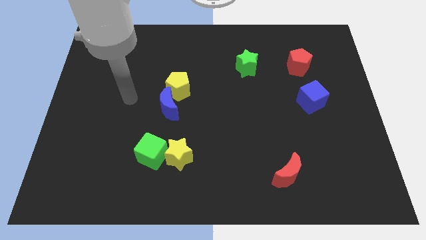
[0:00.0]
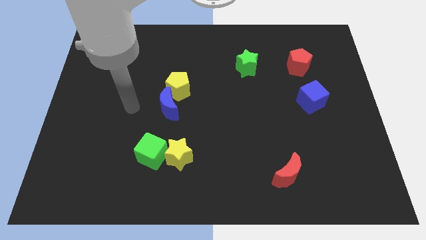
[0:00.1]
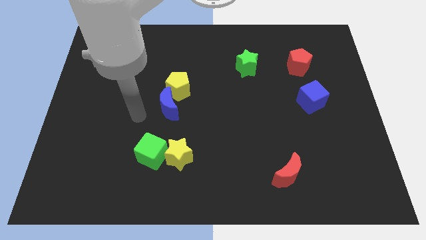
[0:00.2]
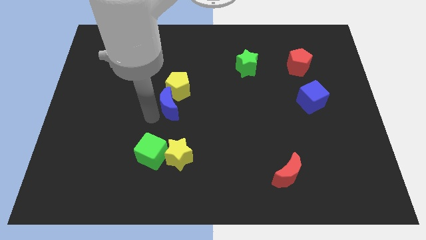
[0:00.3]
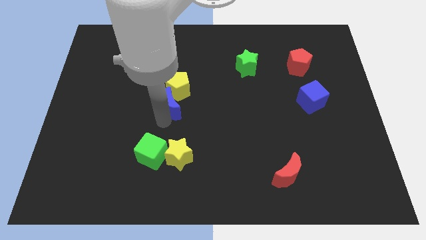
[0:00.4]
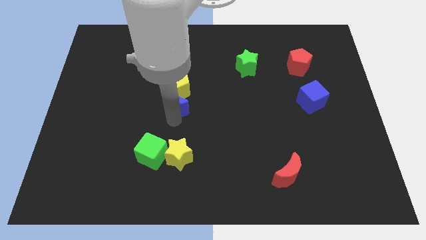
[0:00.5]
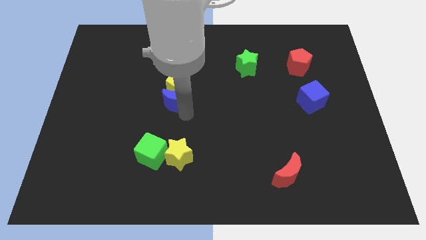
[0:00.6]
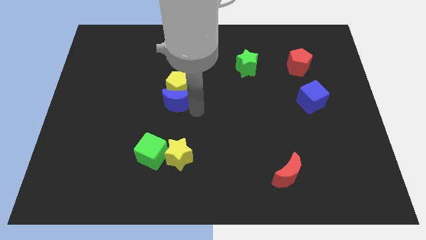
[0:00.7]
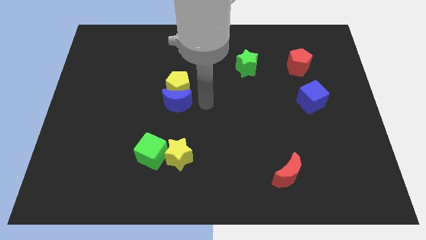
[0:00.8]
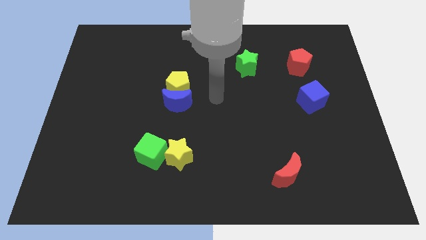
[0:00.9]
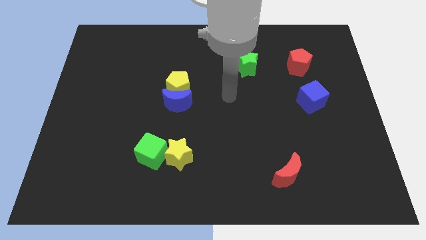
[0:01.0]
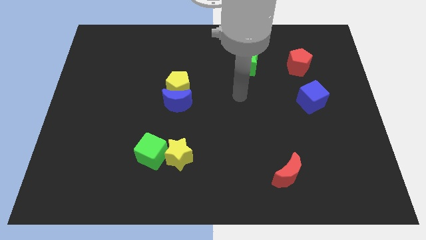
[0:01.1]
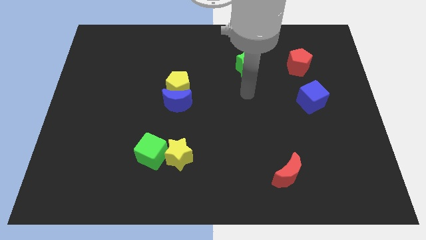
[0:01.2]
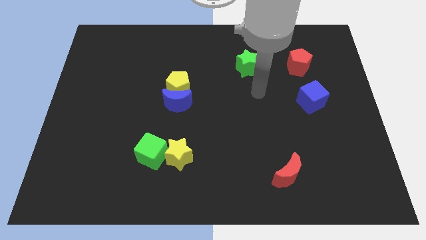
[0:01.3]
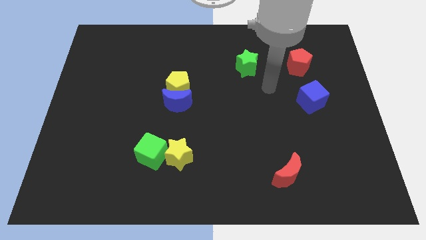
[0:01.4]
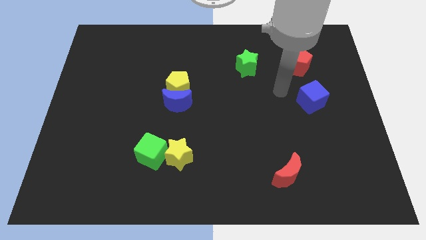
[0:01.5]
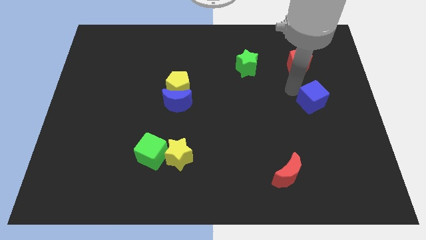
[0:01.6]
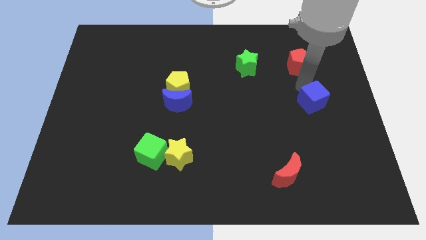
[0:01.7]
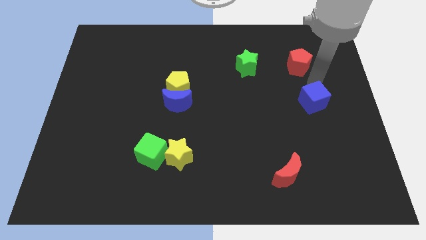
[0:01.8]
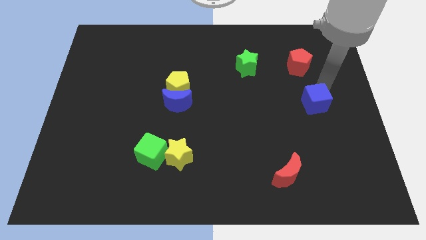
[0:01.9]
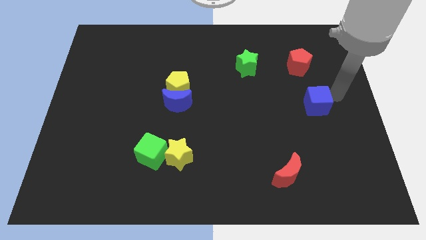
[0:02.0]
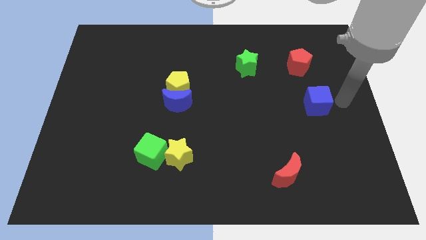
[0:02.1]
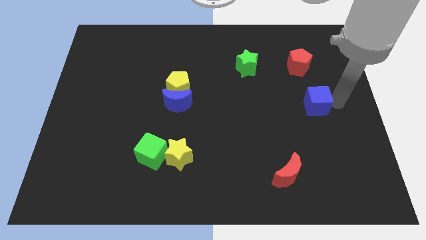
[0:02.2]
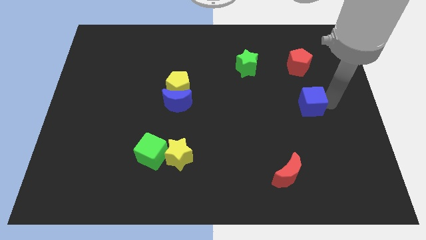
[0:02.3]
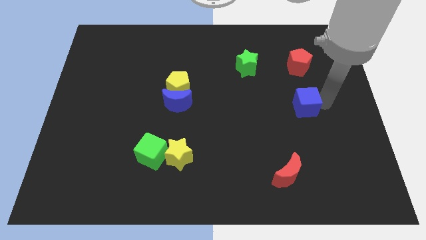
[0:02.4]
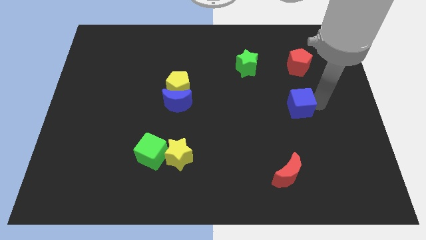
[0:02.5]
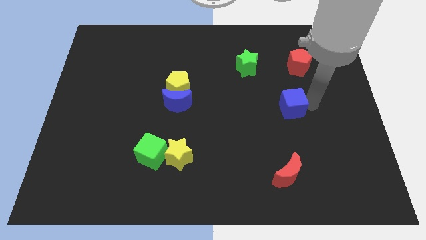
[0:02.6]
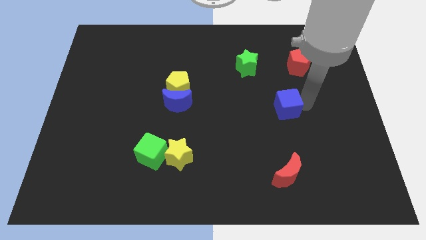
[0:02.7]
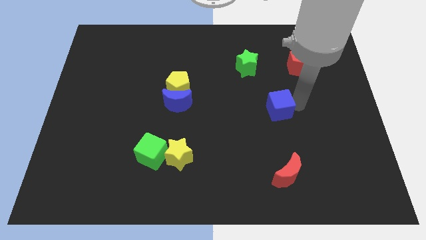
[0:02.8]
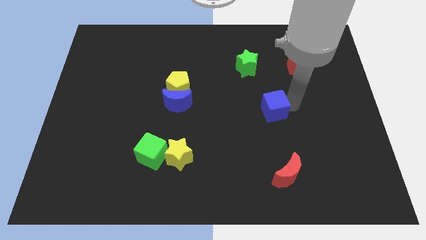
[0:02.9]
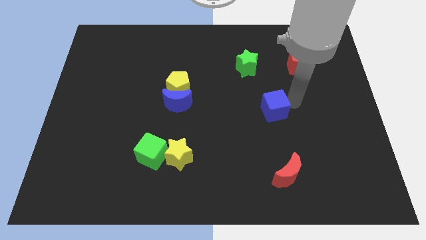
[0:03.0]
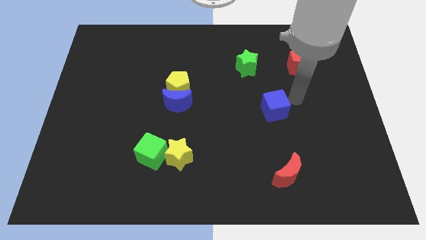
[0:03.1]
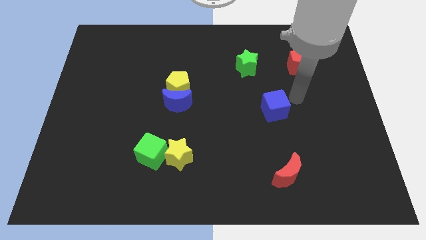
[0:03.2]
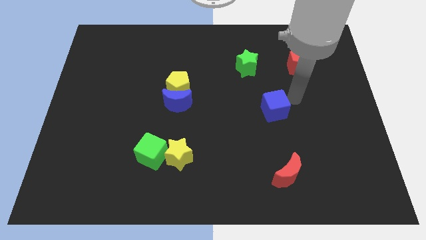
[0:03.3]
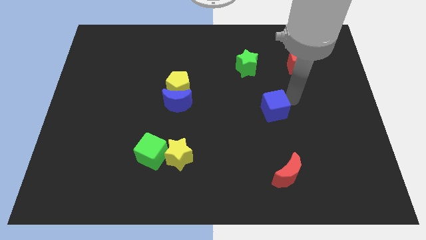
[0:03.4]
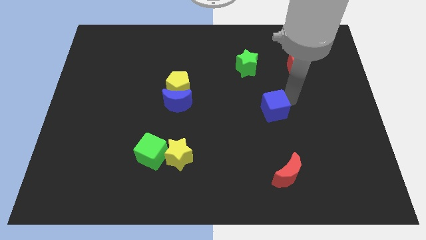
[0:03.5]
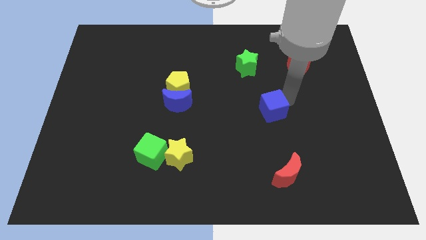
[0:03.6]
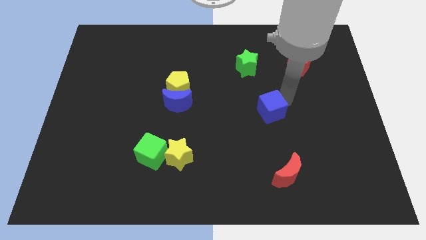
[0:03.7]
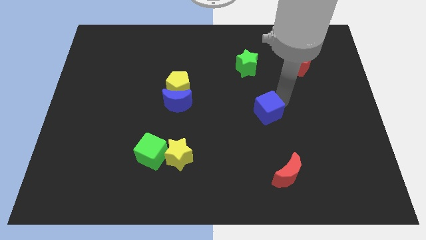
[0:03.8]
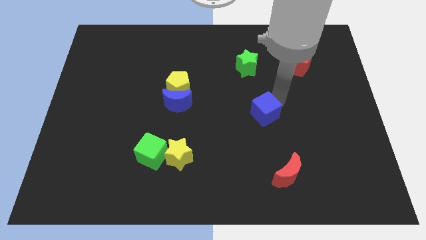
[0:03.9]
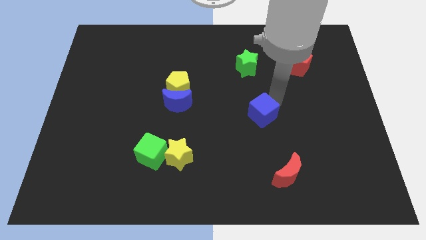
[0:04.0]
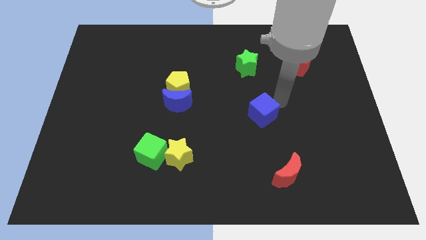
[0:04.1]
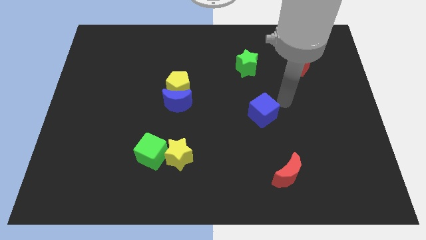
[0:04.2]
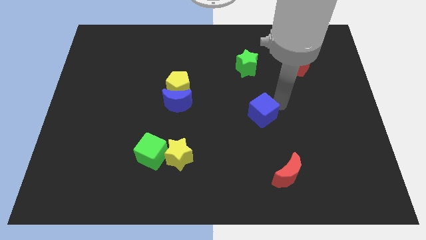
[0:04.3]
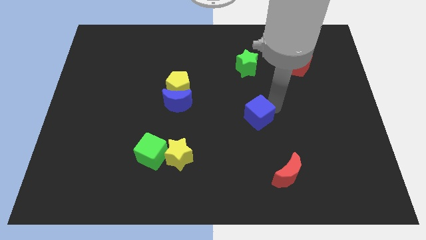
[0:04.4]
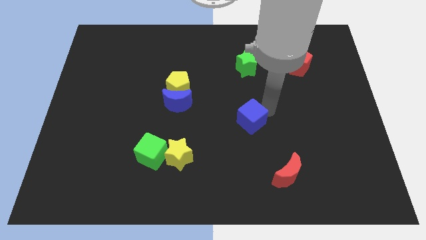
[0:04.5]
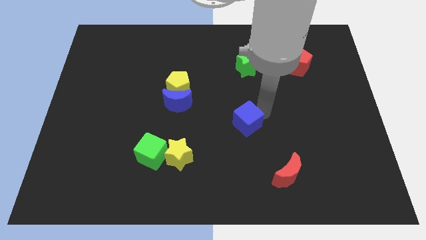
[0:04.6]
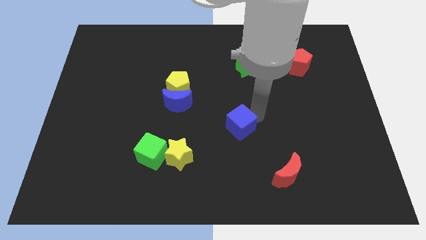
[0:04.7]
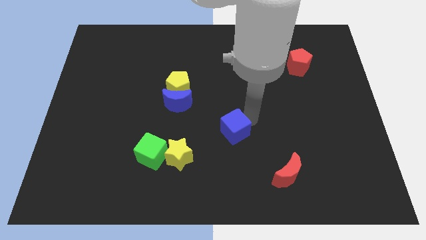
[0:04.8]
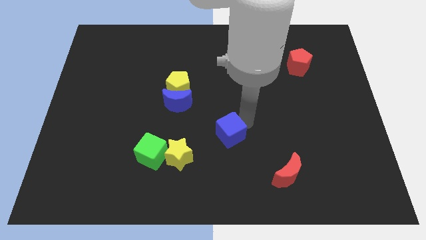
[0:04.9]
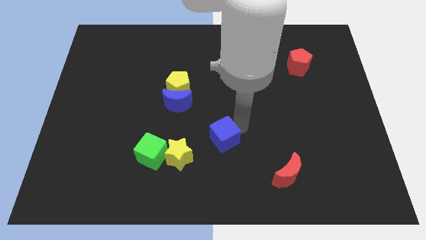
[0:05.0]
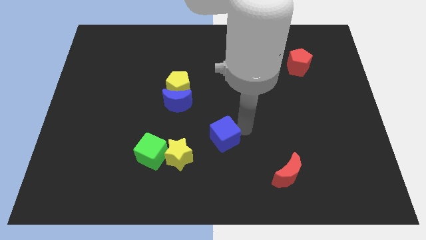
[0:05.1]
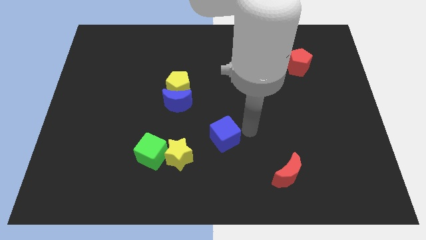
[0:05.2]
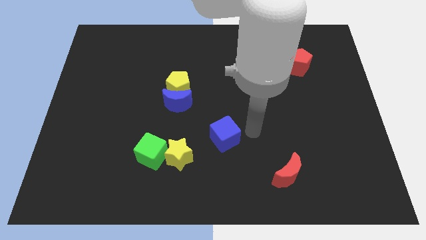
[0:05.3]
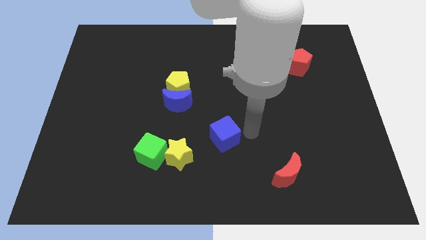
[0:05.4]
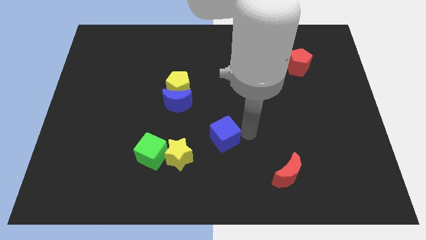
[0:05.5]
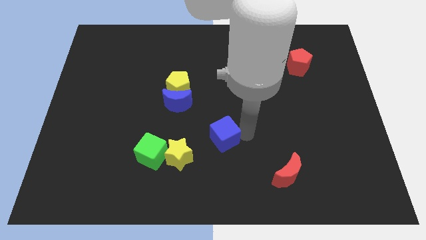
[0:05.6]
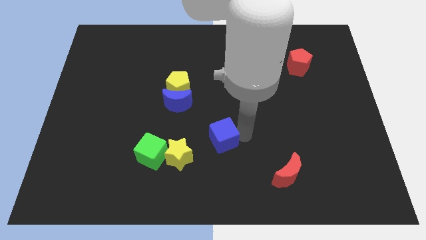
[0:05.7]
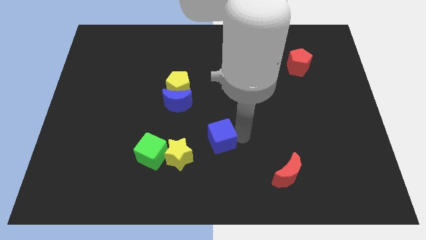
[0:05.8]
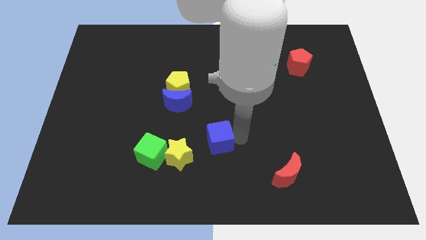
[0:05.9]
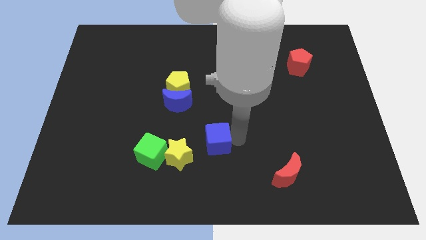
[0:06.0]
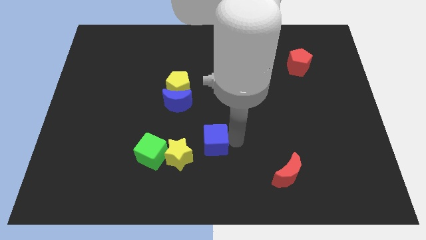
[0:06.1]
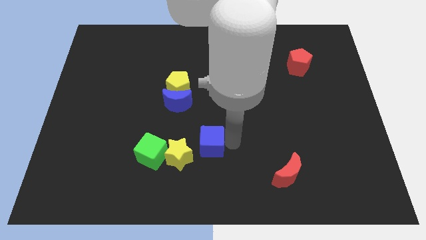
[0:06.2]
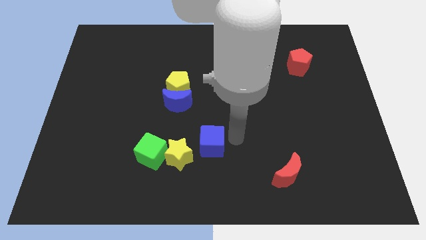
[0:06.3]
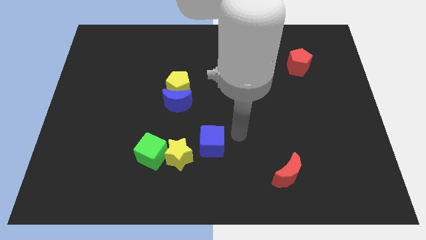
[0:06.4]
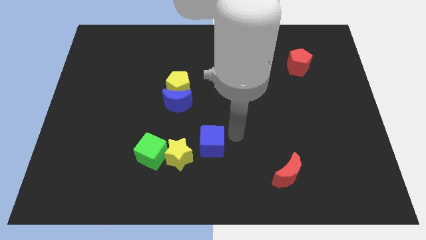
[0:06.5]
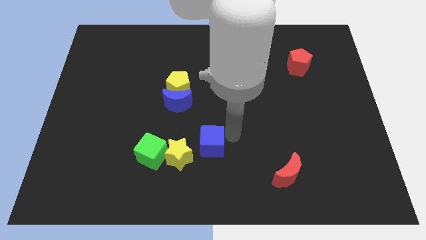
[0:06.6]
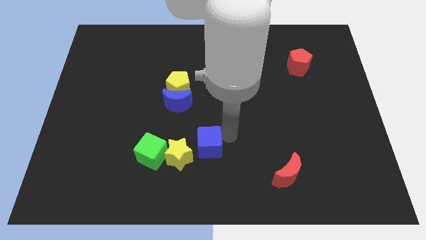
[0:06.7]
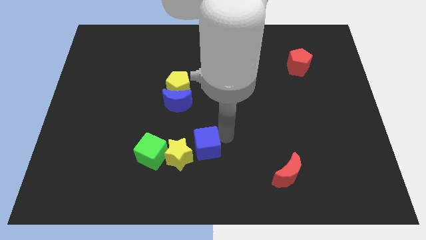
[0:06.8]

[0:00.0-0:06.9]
move the blue cube close to the yellow star

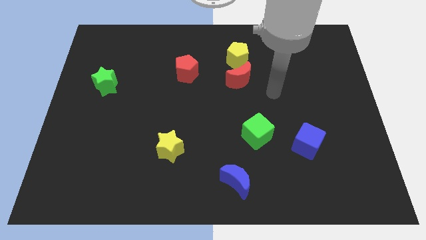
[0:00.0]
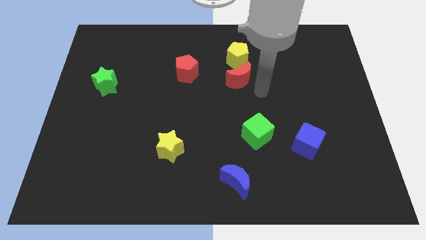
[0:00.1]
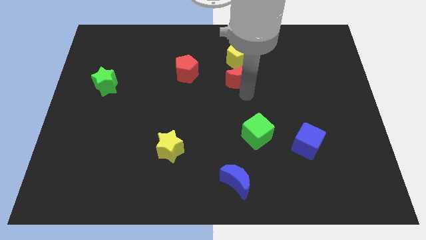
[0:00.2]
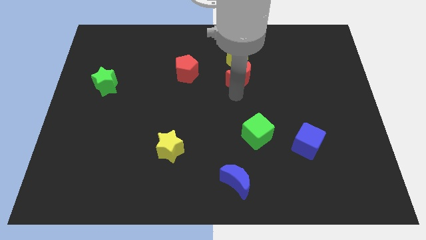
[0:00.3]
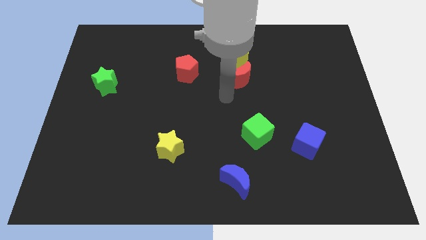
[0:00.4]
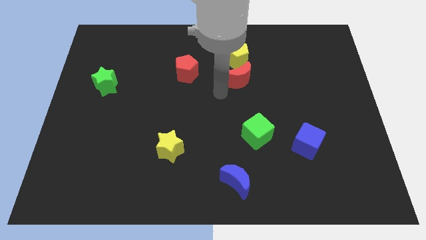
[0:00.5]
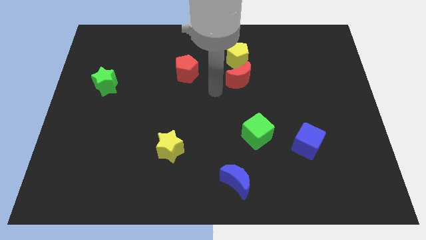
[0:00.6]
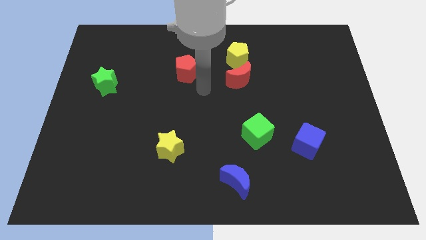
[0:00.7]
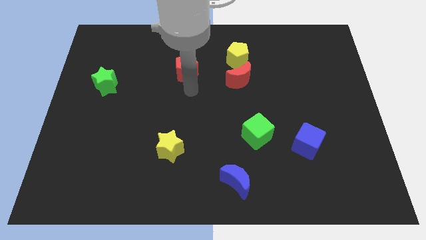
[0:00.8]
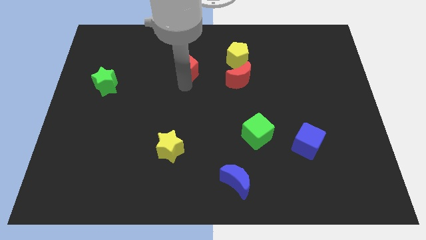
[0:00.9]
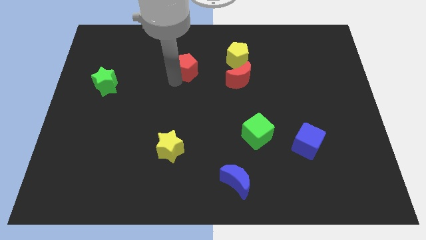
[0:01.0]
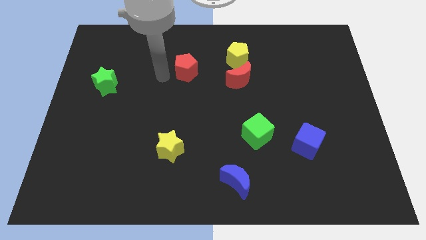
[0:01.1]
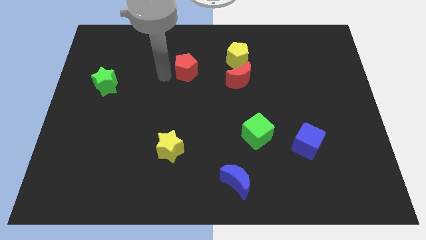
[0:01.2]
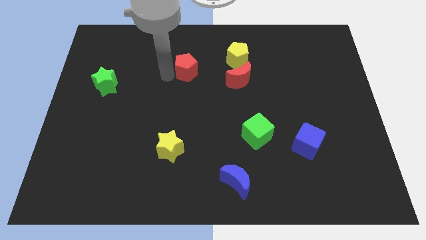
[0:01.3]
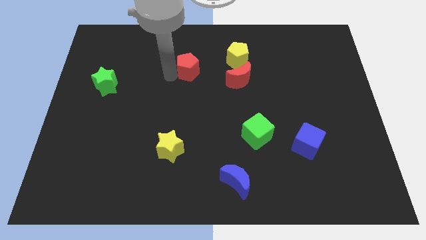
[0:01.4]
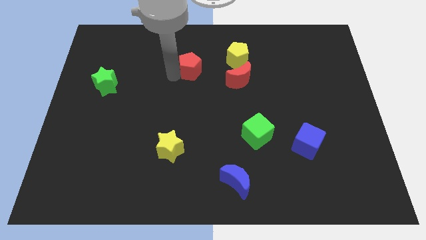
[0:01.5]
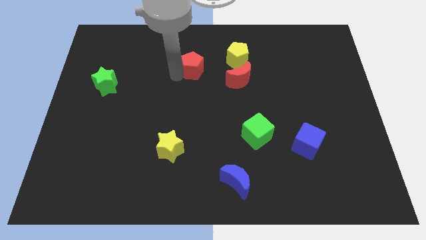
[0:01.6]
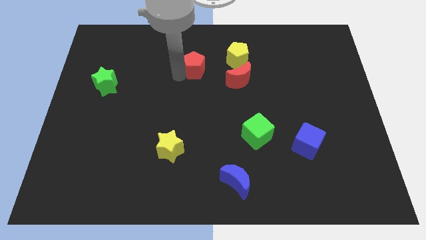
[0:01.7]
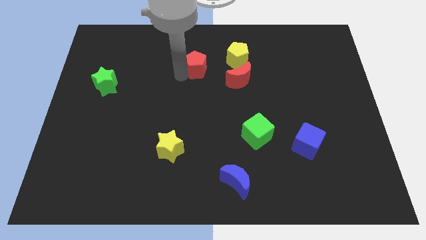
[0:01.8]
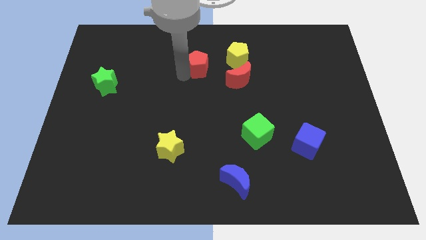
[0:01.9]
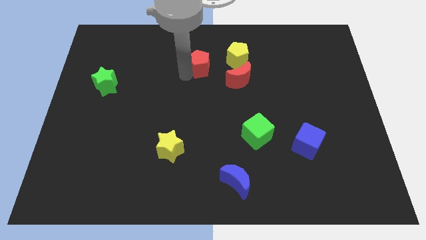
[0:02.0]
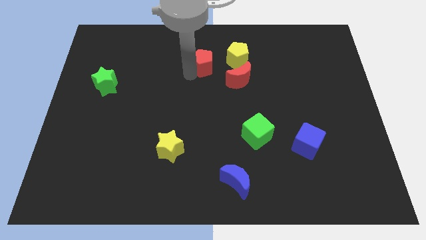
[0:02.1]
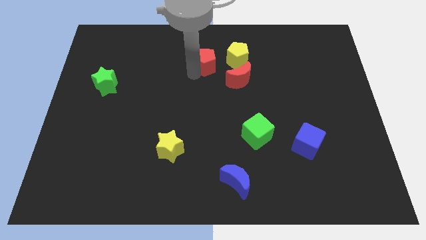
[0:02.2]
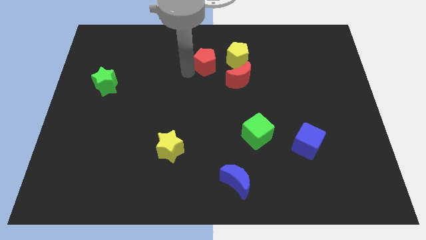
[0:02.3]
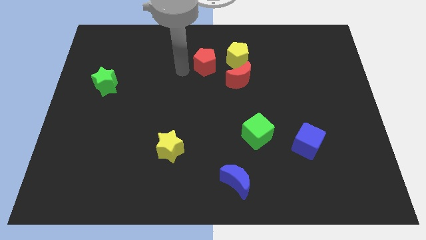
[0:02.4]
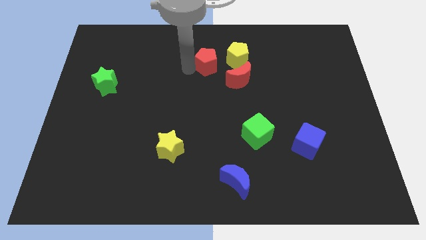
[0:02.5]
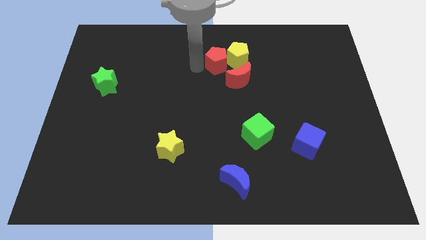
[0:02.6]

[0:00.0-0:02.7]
move the red pentagon close to the yellow pentagon
